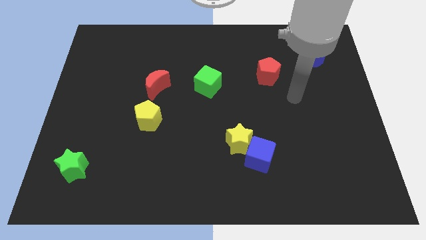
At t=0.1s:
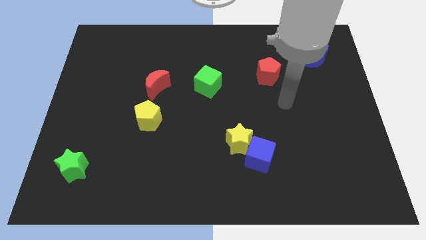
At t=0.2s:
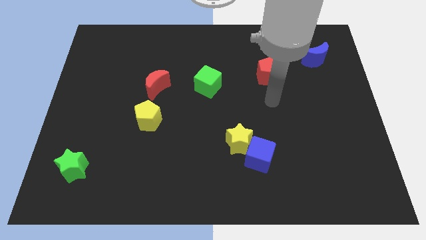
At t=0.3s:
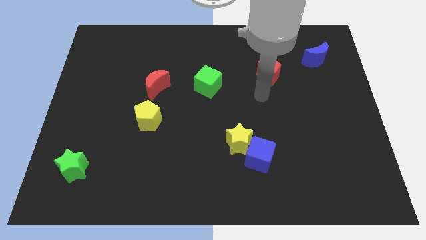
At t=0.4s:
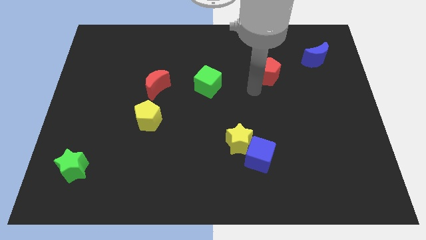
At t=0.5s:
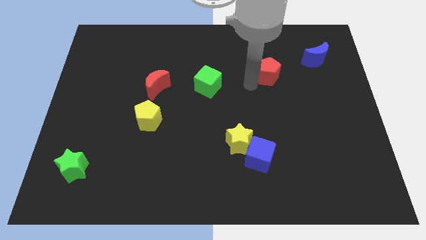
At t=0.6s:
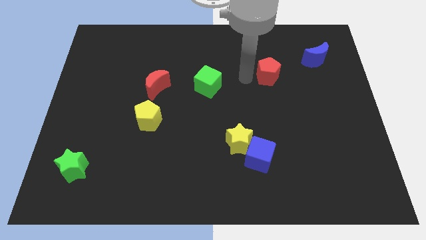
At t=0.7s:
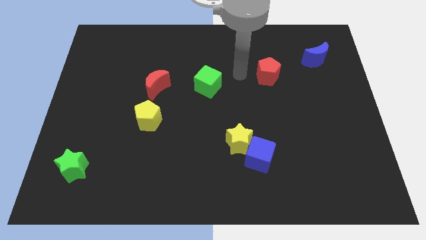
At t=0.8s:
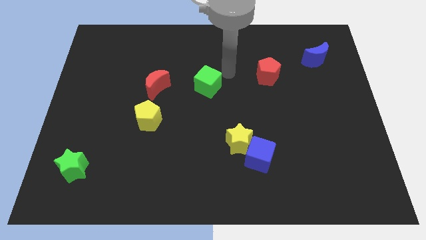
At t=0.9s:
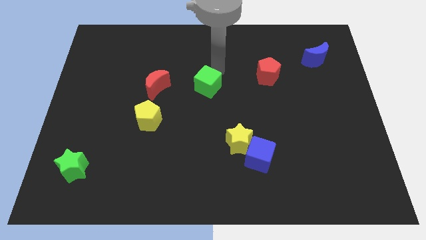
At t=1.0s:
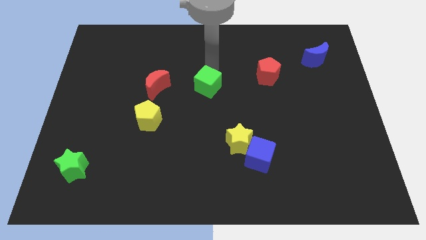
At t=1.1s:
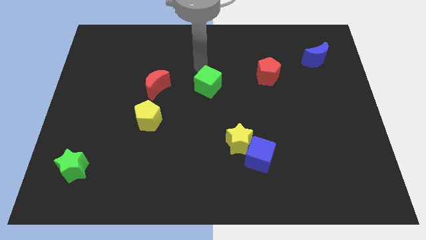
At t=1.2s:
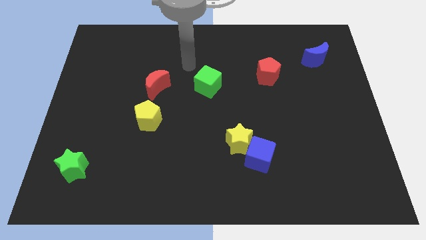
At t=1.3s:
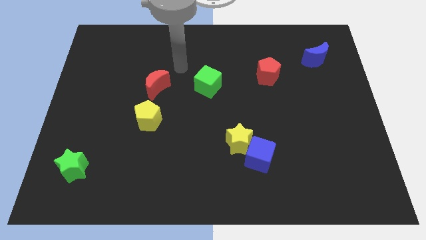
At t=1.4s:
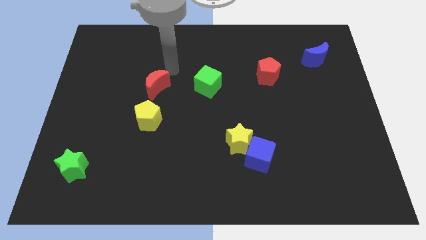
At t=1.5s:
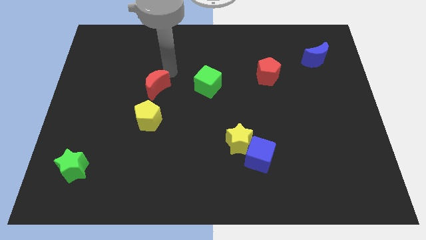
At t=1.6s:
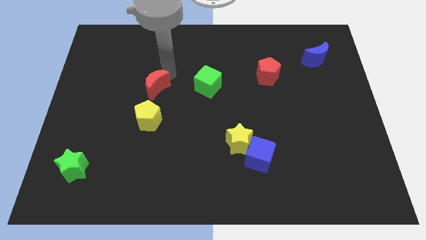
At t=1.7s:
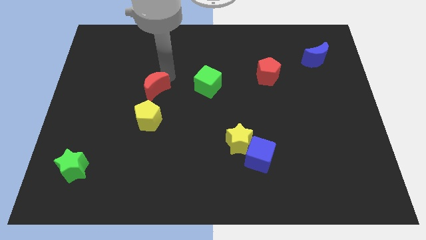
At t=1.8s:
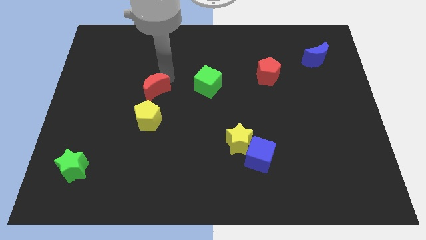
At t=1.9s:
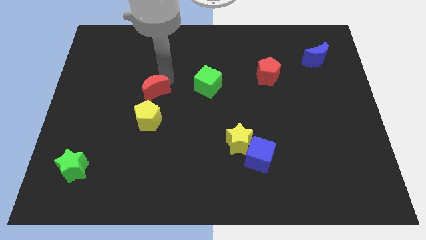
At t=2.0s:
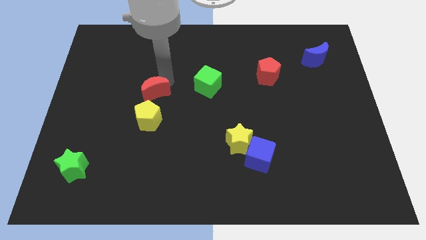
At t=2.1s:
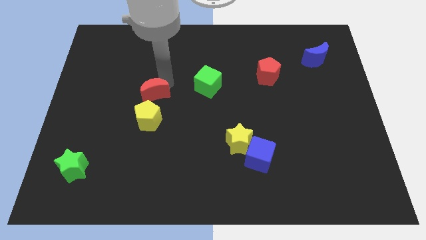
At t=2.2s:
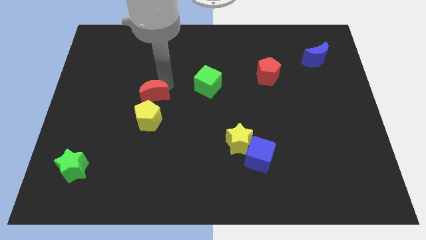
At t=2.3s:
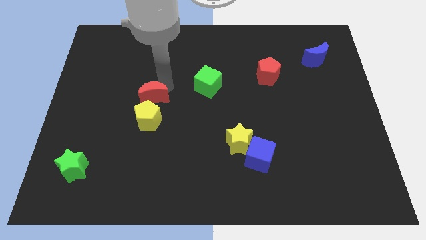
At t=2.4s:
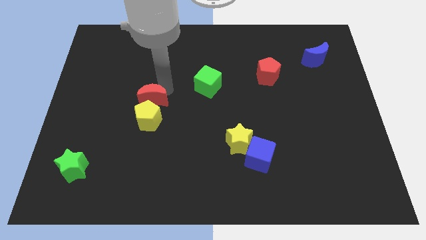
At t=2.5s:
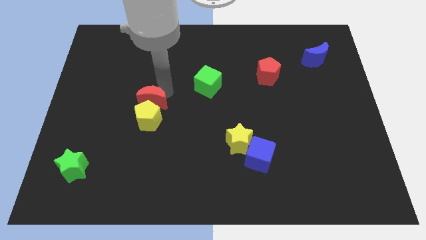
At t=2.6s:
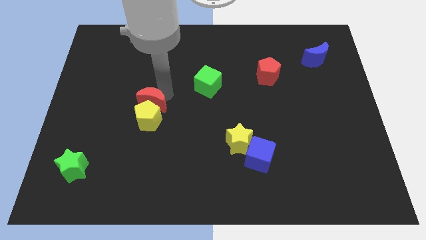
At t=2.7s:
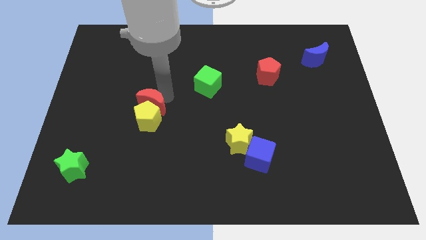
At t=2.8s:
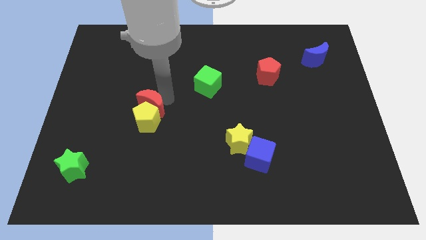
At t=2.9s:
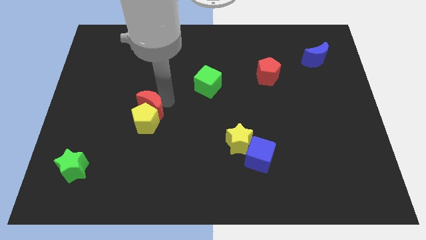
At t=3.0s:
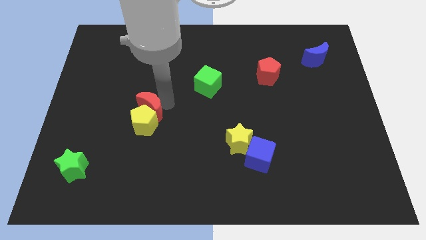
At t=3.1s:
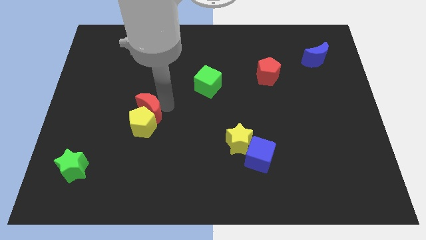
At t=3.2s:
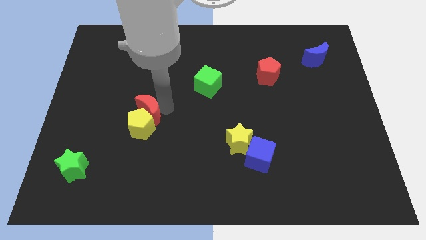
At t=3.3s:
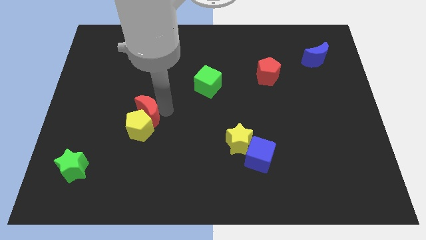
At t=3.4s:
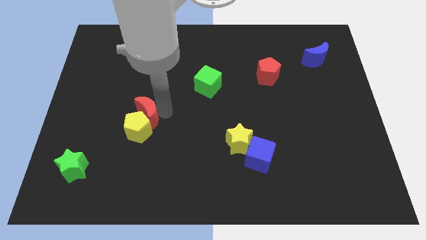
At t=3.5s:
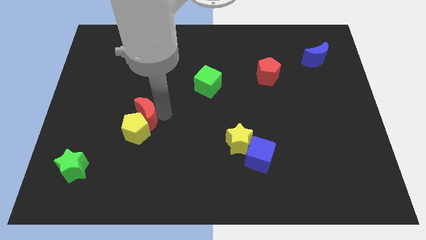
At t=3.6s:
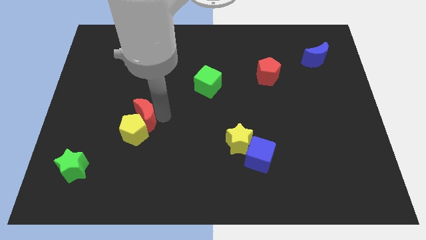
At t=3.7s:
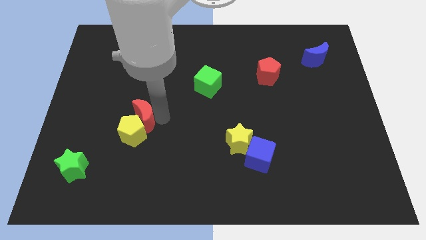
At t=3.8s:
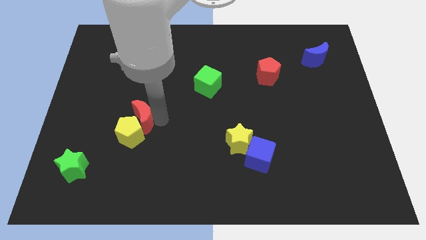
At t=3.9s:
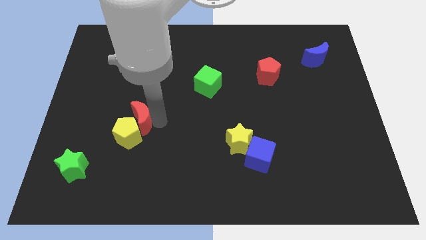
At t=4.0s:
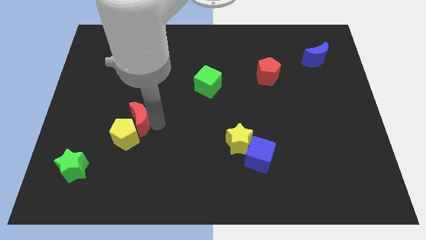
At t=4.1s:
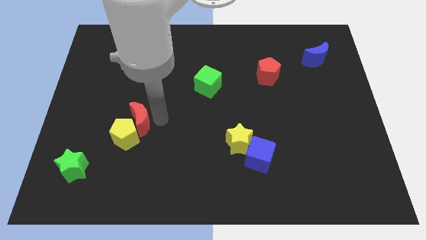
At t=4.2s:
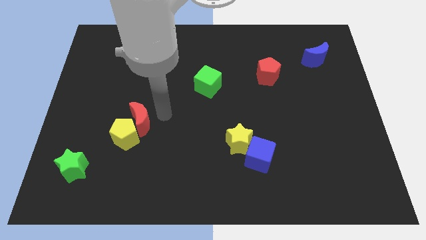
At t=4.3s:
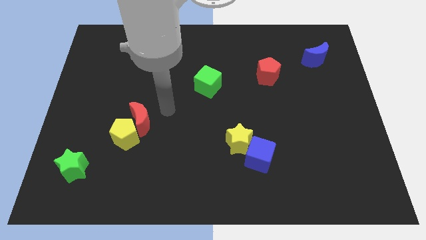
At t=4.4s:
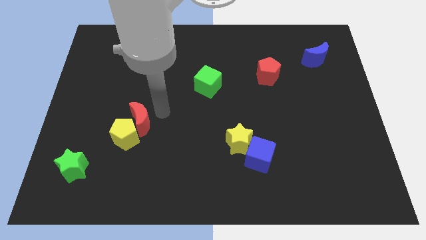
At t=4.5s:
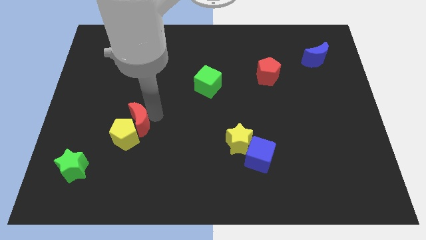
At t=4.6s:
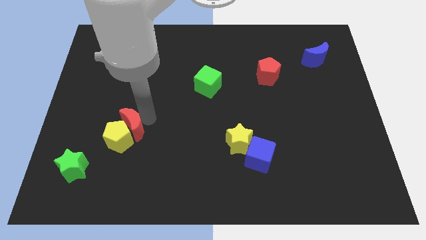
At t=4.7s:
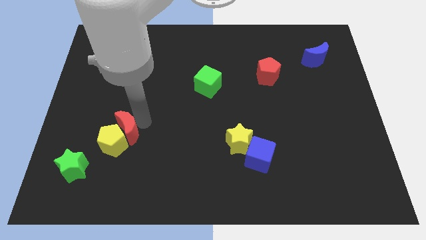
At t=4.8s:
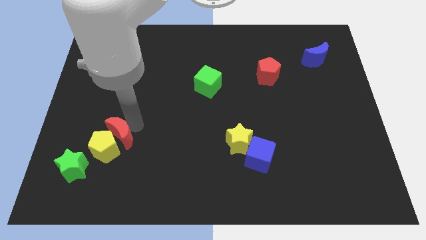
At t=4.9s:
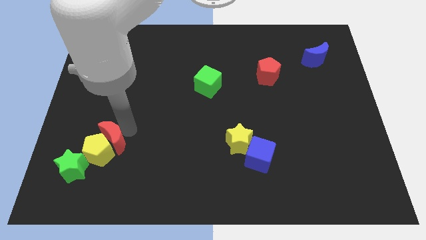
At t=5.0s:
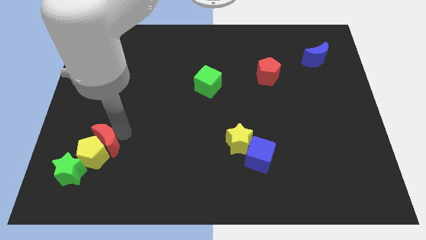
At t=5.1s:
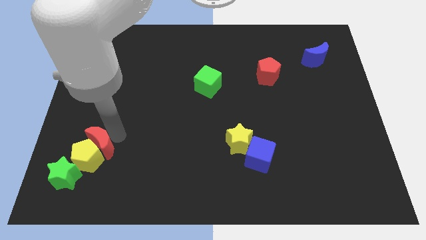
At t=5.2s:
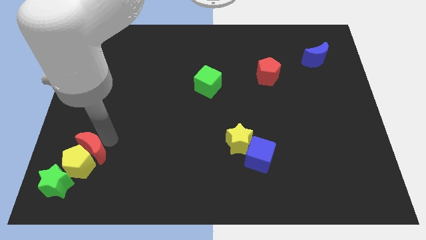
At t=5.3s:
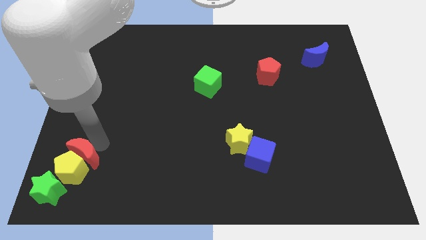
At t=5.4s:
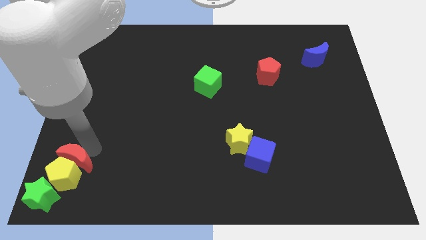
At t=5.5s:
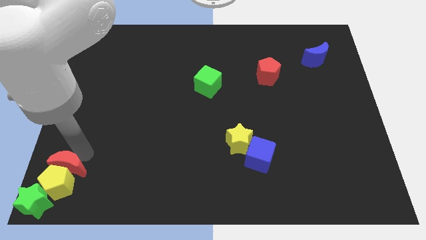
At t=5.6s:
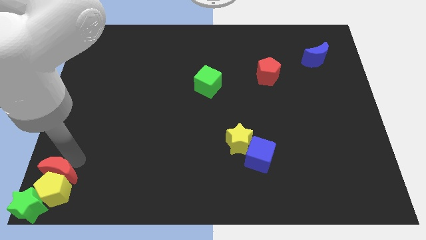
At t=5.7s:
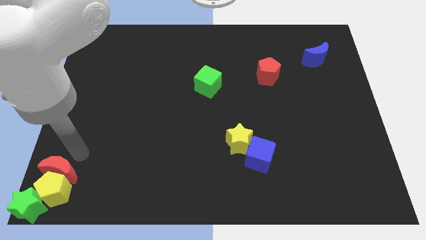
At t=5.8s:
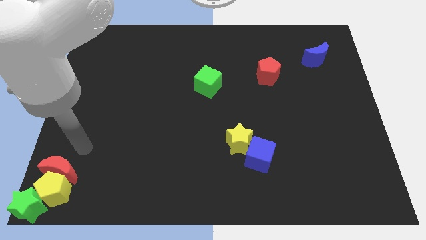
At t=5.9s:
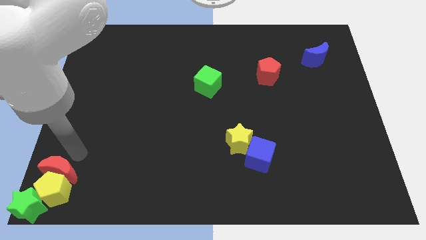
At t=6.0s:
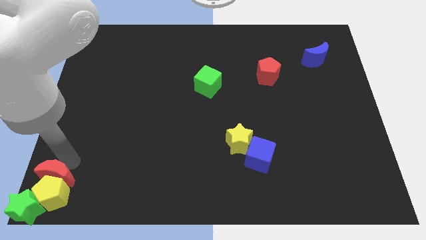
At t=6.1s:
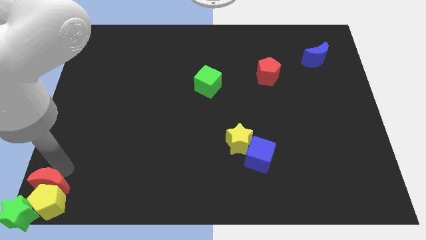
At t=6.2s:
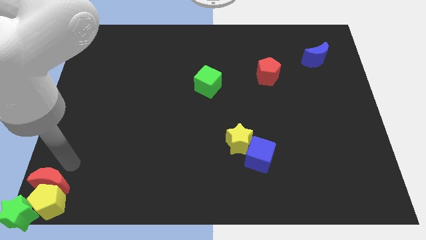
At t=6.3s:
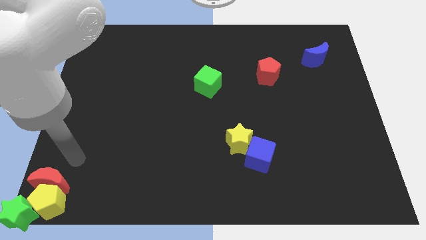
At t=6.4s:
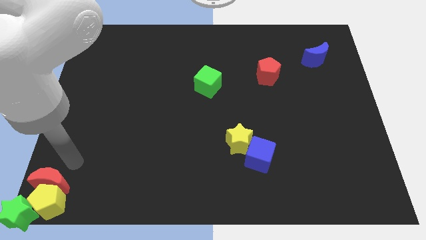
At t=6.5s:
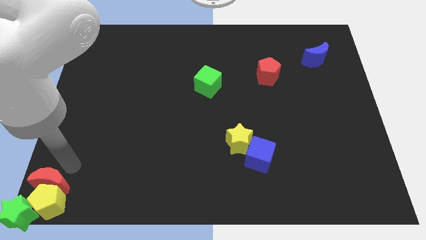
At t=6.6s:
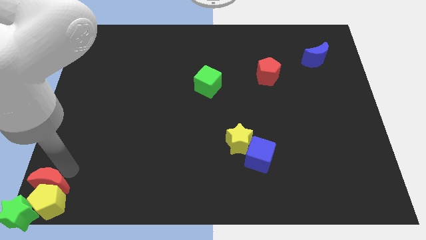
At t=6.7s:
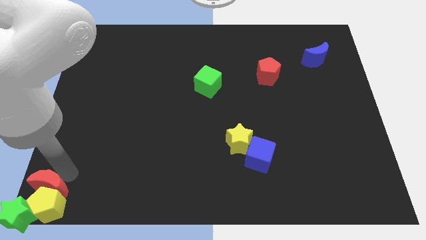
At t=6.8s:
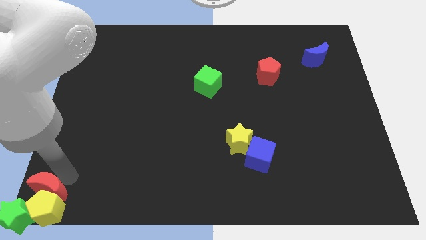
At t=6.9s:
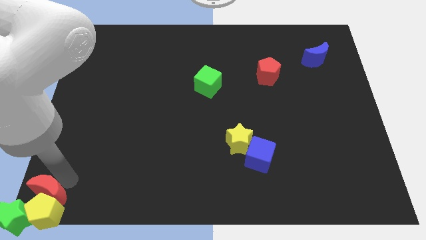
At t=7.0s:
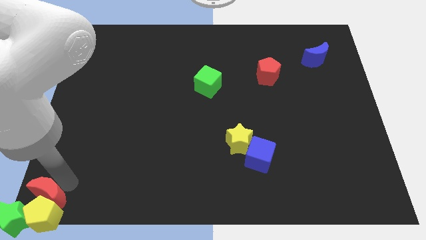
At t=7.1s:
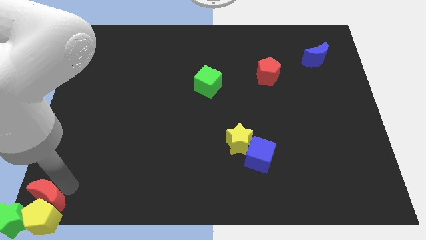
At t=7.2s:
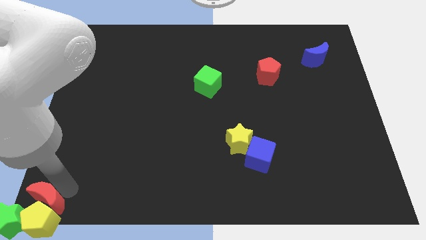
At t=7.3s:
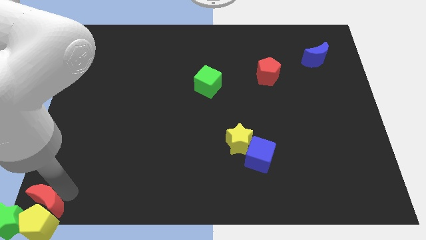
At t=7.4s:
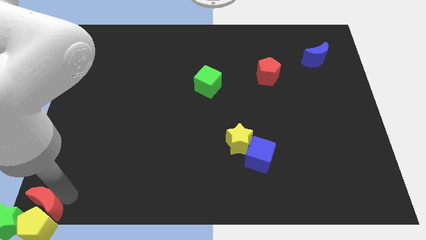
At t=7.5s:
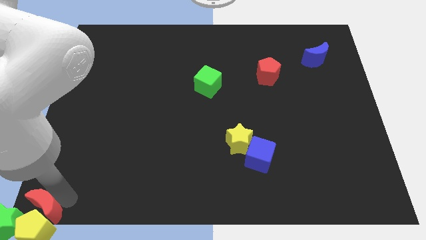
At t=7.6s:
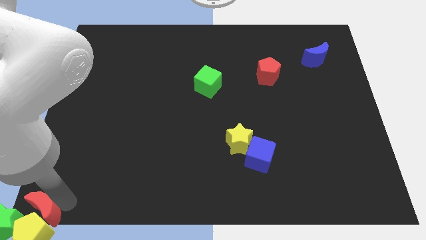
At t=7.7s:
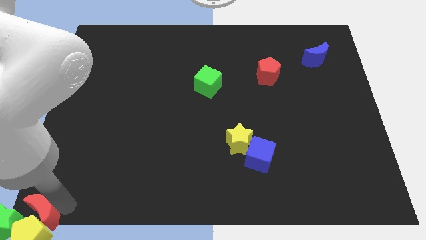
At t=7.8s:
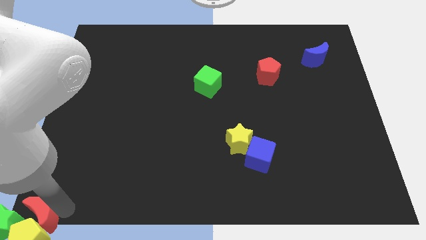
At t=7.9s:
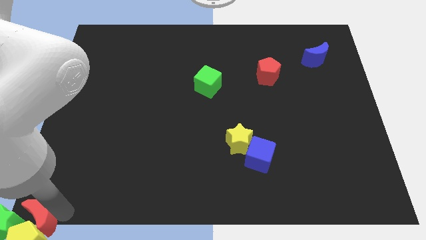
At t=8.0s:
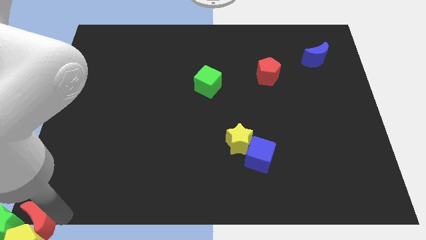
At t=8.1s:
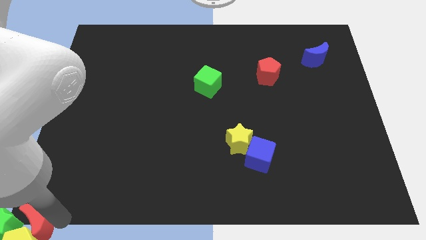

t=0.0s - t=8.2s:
slide the red moon close to the green star

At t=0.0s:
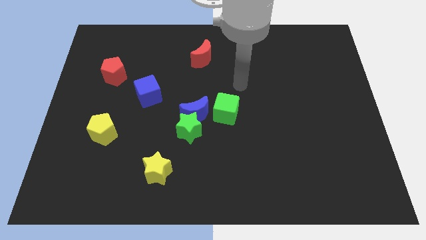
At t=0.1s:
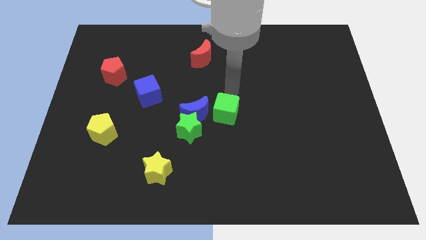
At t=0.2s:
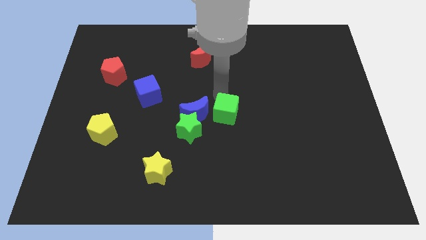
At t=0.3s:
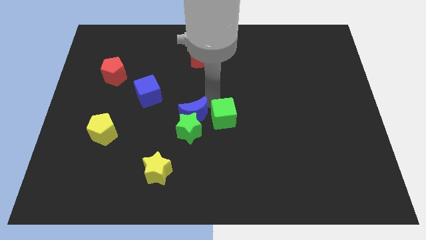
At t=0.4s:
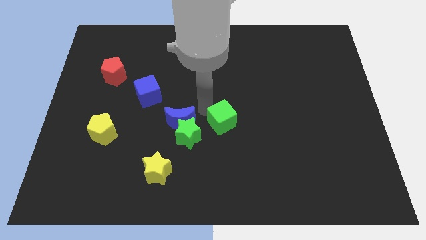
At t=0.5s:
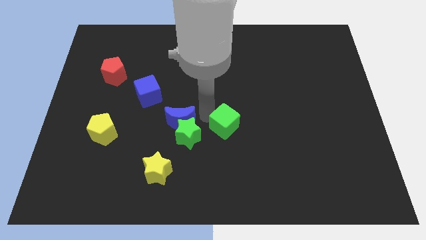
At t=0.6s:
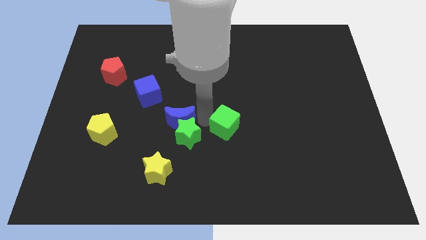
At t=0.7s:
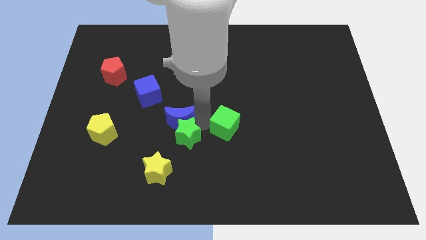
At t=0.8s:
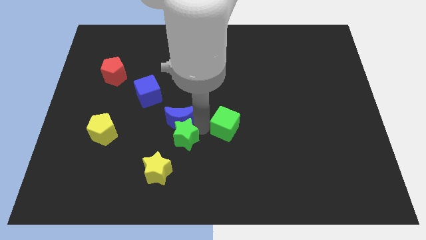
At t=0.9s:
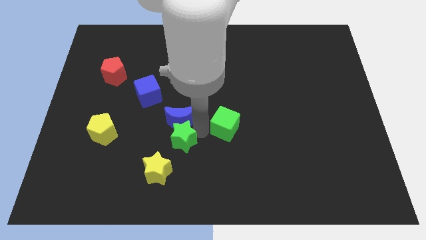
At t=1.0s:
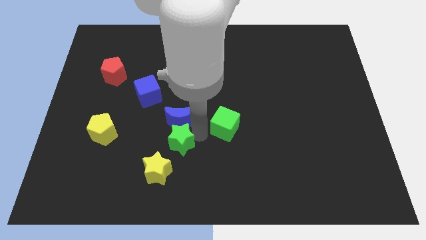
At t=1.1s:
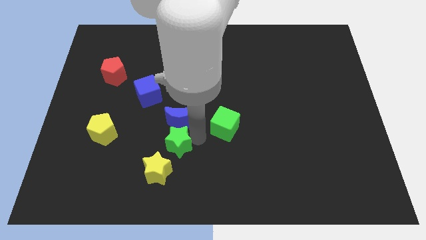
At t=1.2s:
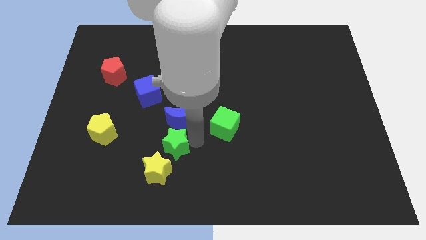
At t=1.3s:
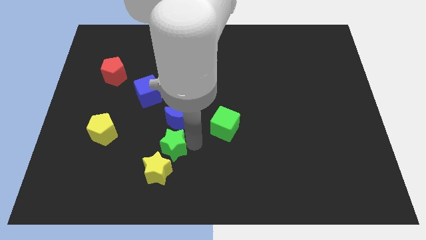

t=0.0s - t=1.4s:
put the green star towards the yellow star
